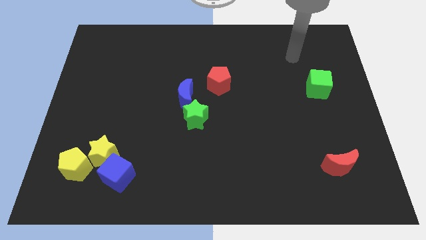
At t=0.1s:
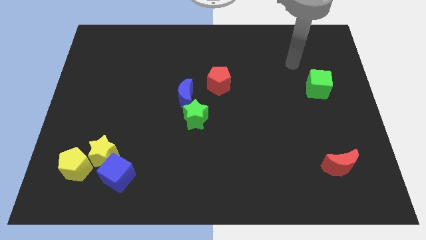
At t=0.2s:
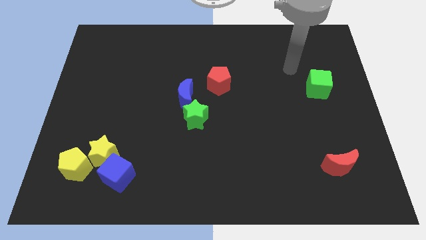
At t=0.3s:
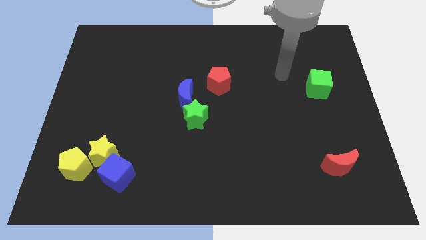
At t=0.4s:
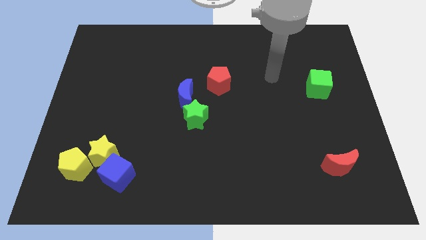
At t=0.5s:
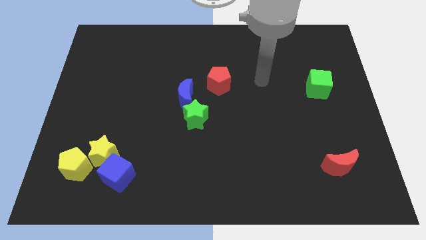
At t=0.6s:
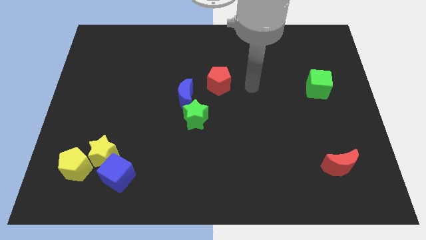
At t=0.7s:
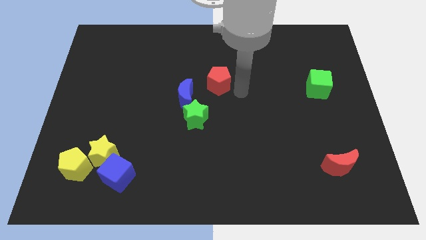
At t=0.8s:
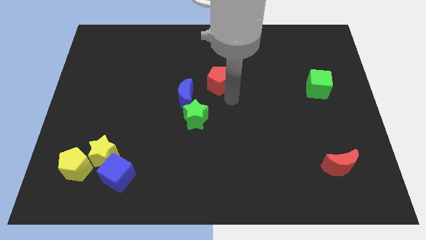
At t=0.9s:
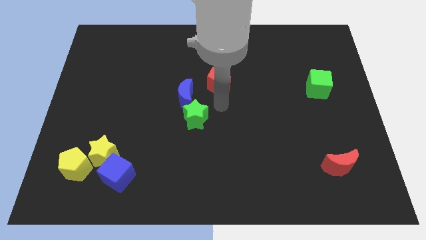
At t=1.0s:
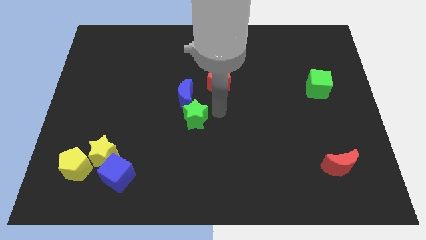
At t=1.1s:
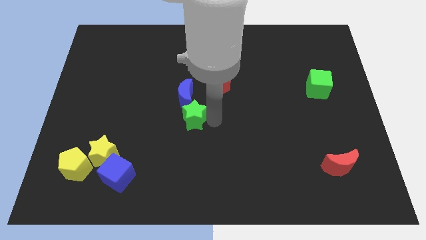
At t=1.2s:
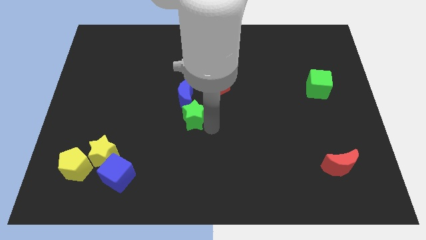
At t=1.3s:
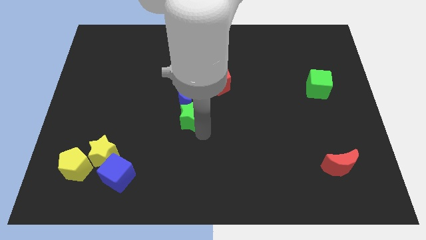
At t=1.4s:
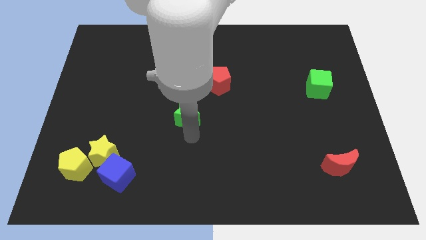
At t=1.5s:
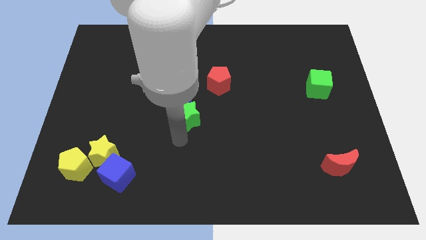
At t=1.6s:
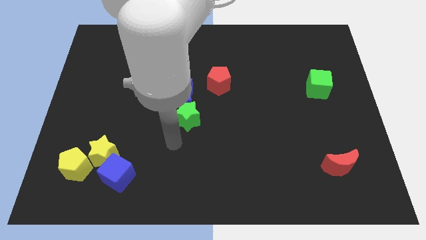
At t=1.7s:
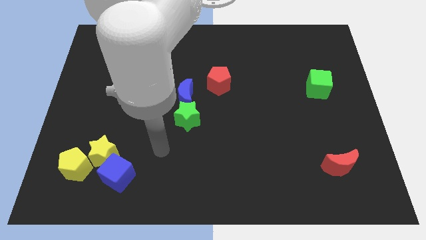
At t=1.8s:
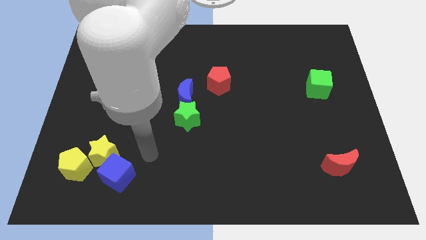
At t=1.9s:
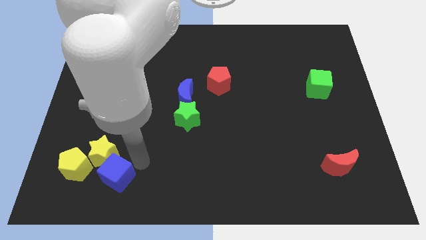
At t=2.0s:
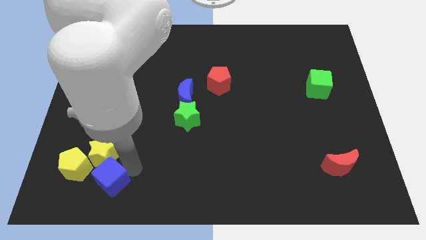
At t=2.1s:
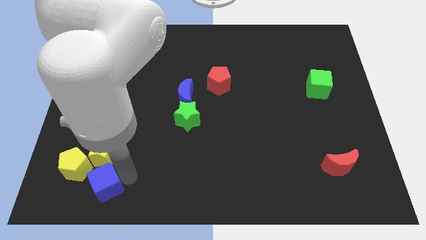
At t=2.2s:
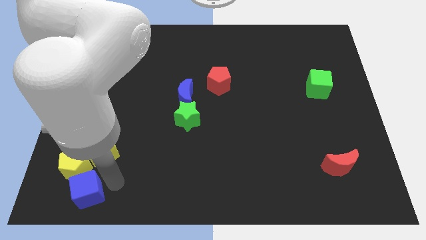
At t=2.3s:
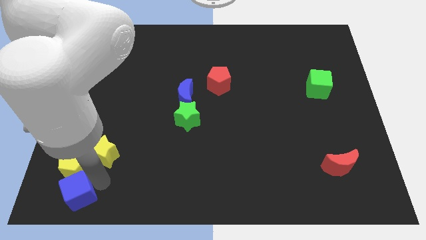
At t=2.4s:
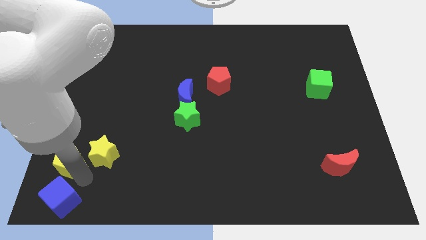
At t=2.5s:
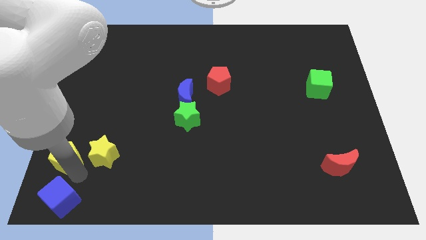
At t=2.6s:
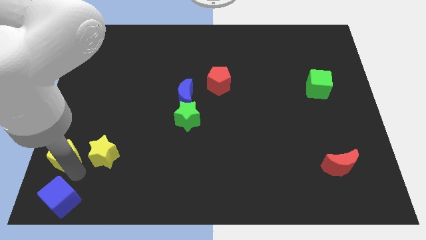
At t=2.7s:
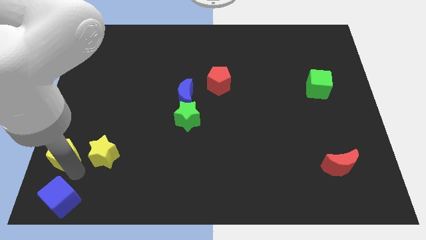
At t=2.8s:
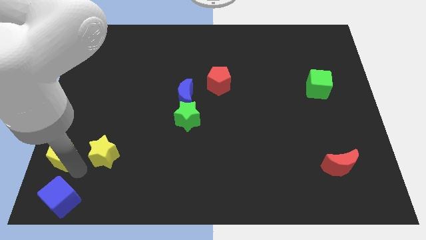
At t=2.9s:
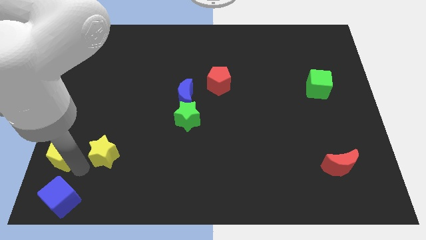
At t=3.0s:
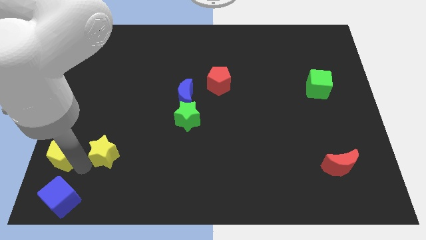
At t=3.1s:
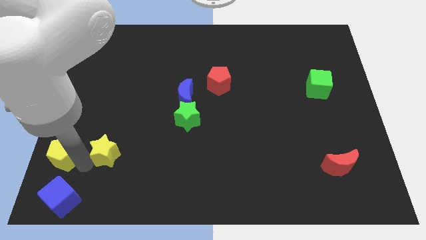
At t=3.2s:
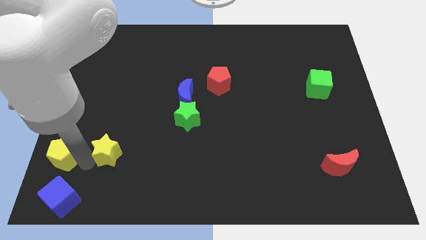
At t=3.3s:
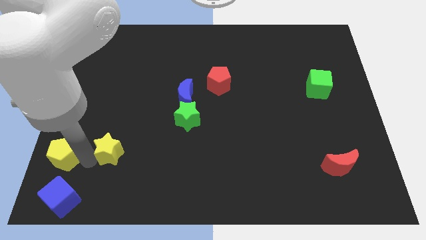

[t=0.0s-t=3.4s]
separate the yellow star from the yellow pentagon and blue cube

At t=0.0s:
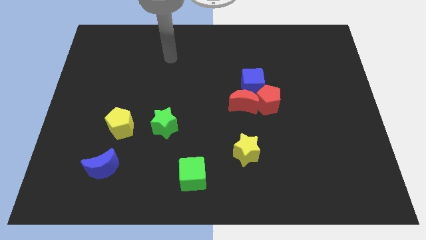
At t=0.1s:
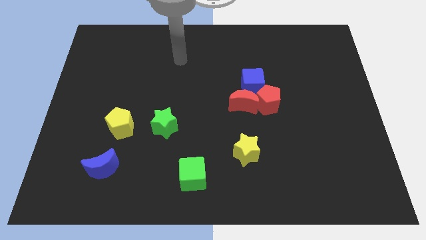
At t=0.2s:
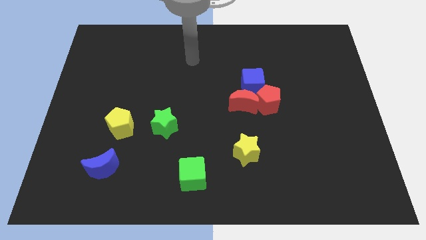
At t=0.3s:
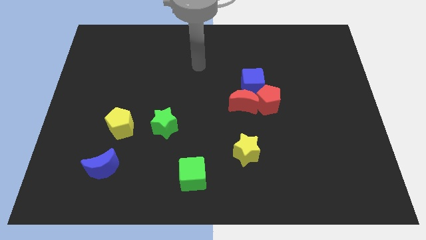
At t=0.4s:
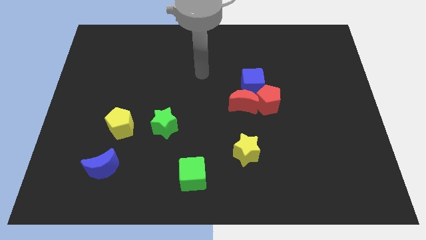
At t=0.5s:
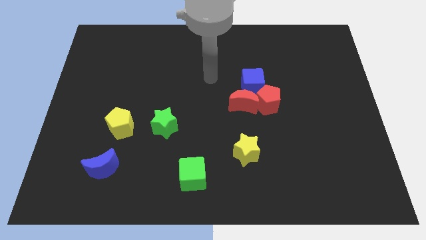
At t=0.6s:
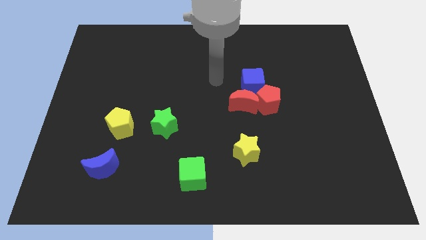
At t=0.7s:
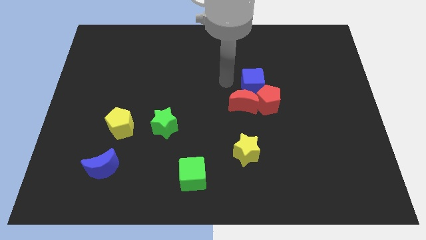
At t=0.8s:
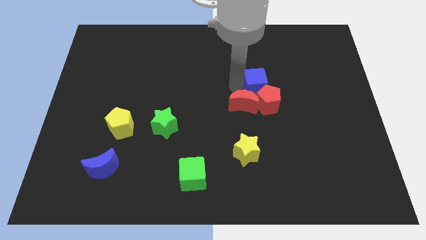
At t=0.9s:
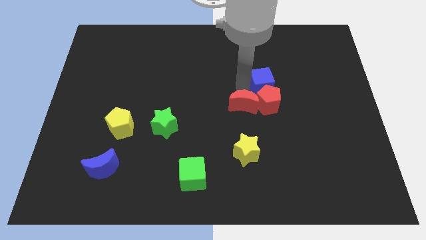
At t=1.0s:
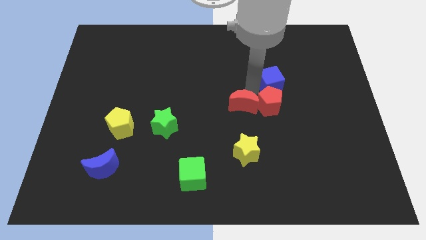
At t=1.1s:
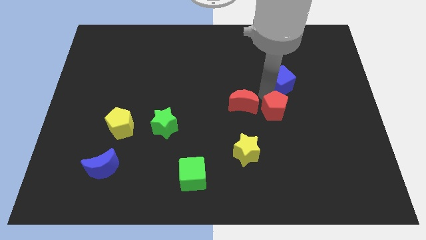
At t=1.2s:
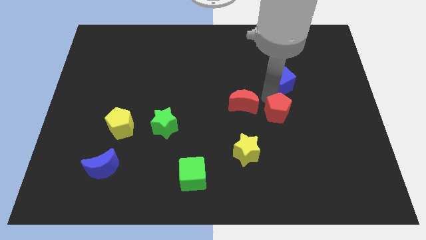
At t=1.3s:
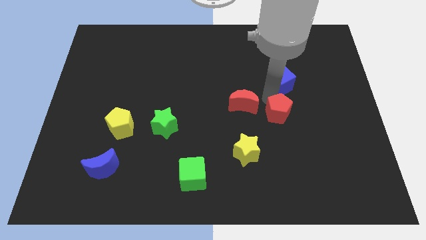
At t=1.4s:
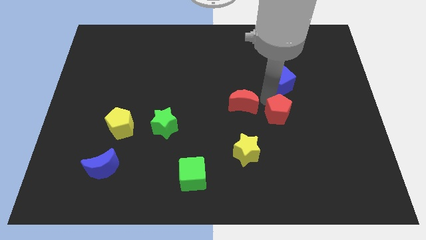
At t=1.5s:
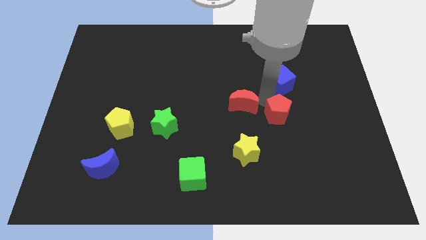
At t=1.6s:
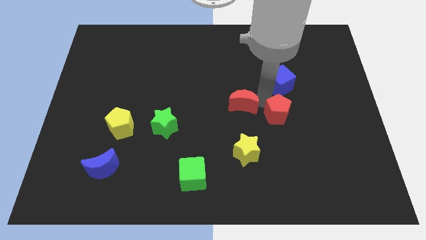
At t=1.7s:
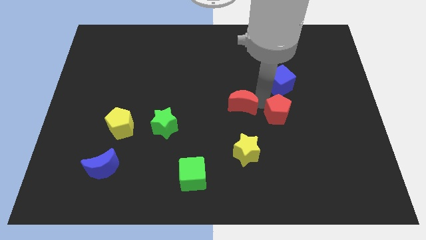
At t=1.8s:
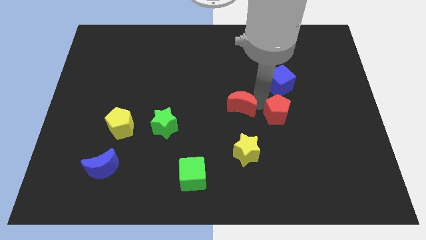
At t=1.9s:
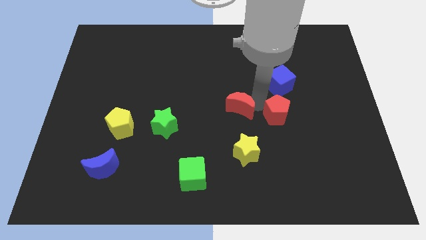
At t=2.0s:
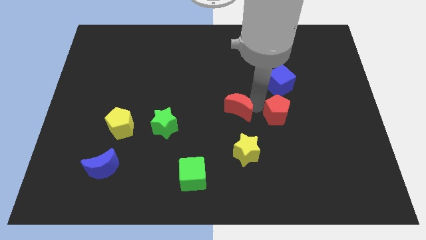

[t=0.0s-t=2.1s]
pull the red moon apart from the red pentagon and blue cube

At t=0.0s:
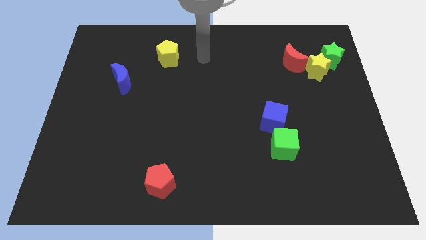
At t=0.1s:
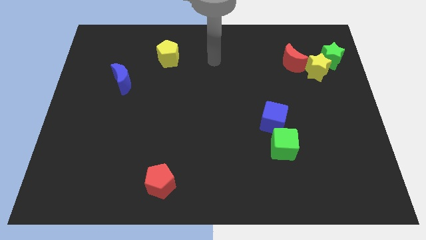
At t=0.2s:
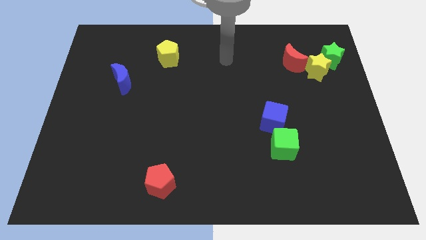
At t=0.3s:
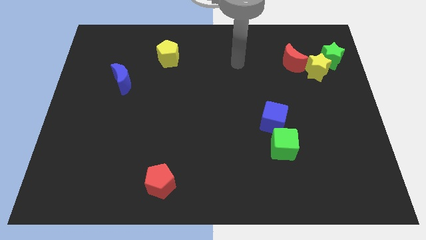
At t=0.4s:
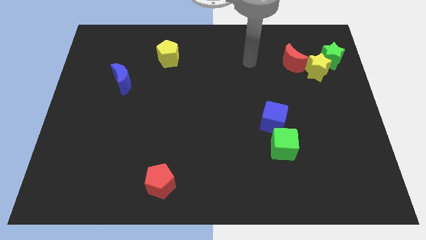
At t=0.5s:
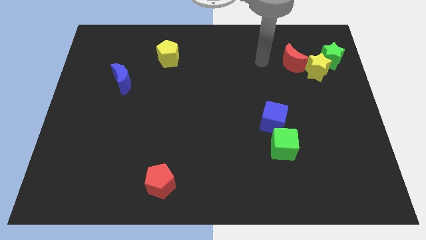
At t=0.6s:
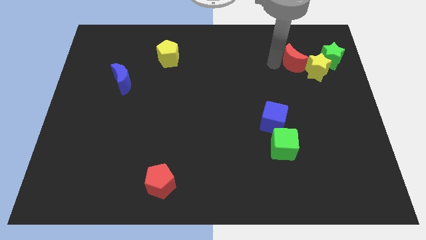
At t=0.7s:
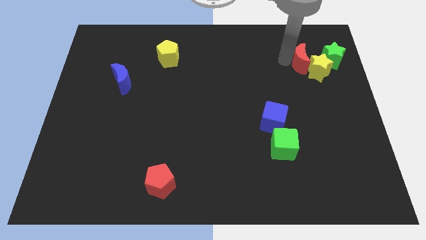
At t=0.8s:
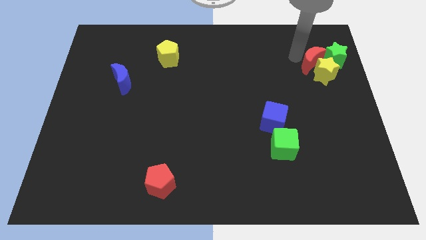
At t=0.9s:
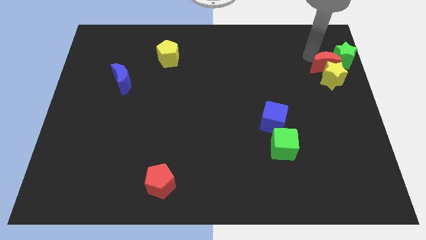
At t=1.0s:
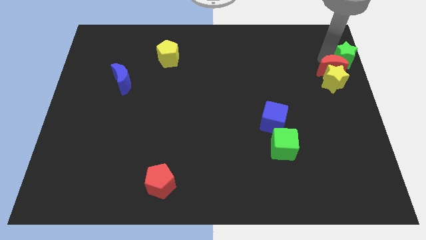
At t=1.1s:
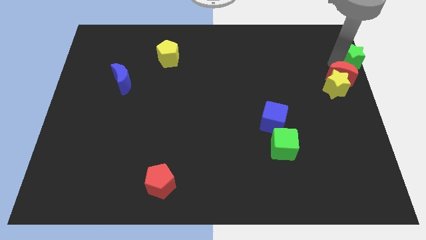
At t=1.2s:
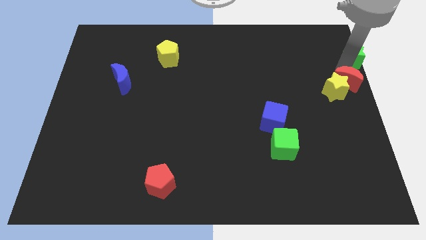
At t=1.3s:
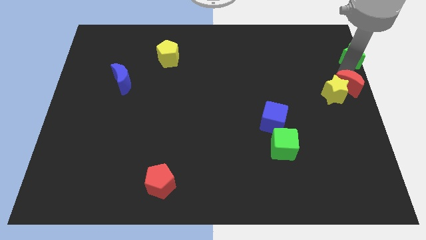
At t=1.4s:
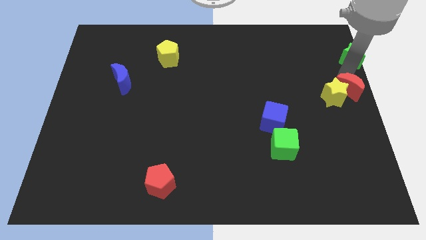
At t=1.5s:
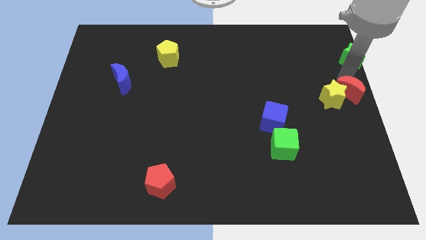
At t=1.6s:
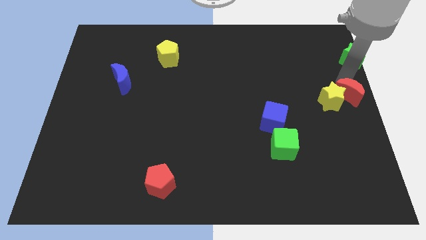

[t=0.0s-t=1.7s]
move the yellow star away from the green star and red moon

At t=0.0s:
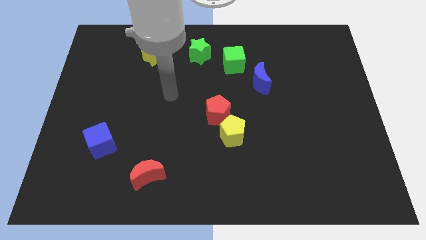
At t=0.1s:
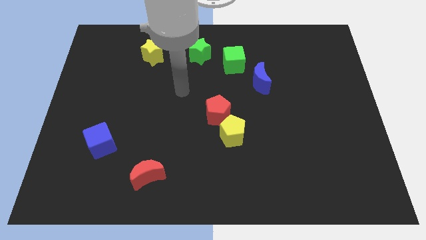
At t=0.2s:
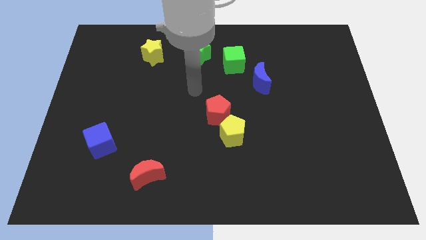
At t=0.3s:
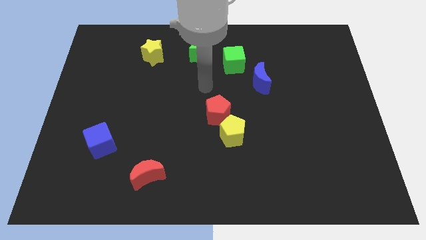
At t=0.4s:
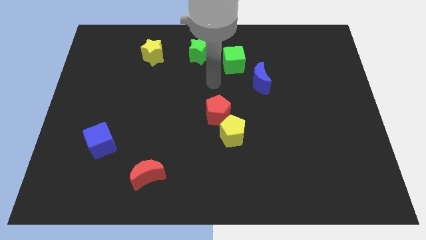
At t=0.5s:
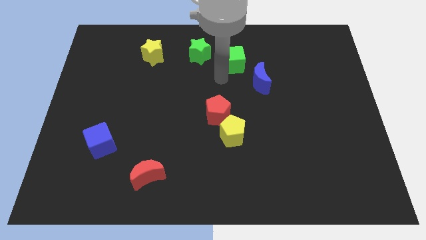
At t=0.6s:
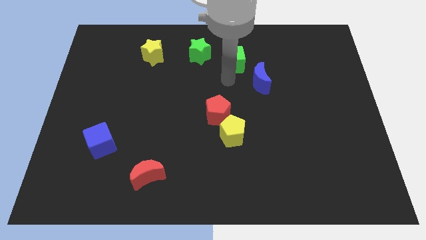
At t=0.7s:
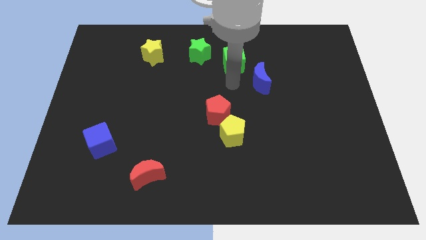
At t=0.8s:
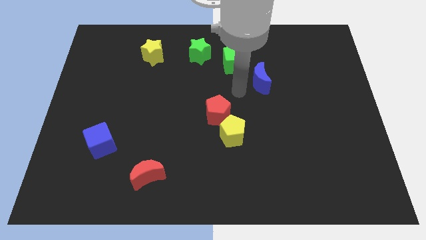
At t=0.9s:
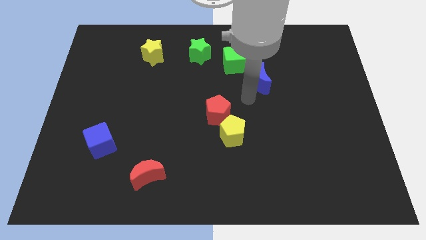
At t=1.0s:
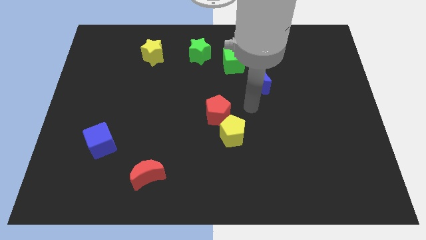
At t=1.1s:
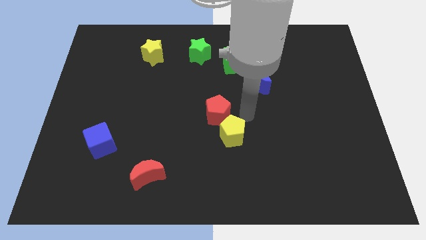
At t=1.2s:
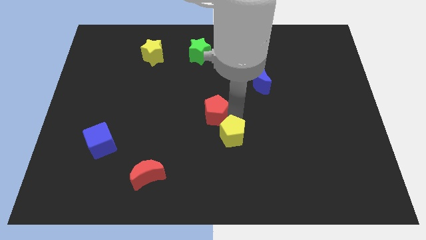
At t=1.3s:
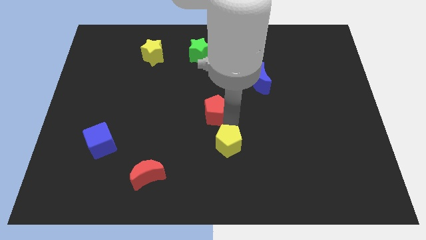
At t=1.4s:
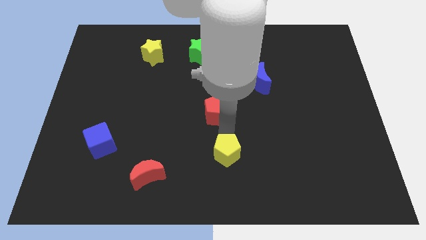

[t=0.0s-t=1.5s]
move the red pentagon away from the yellow pentagon

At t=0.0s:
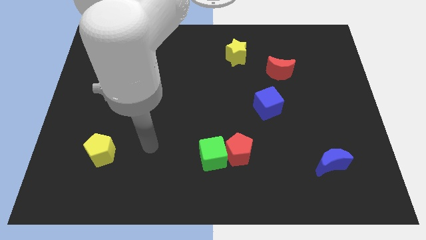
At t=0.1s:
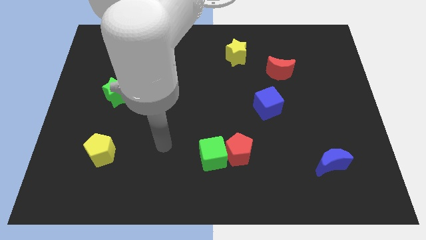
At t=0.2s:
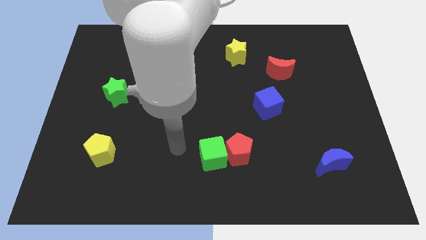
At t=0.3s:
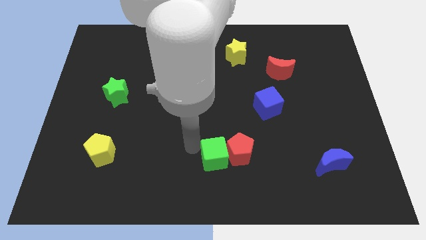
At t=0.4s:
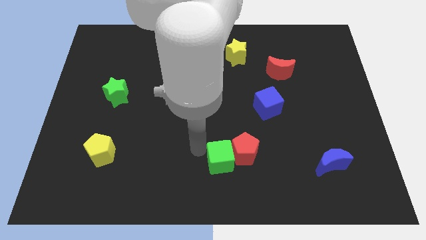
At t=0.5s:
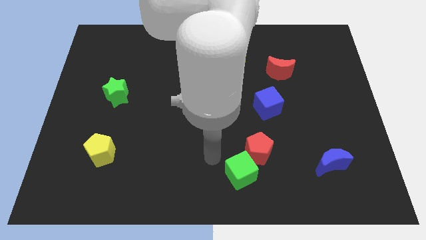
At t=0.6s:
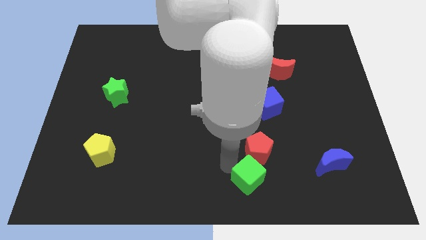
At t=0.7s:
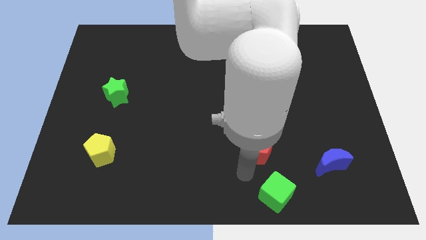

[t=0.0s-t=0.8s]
separate the red pentagon from the green cube
